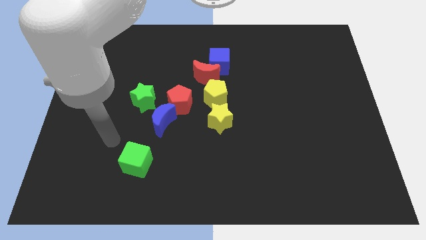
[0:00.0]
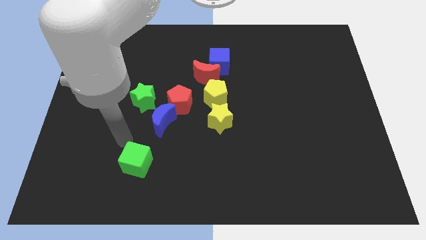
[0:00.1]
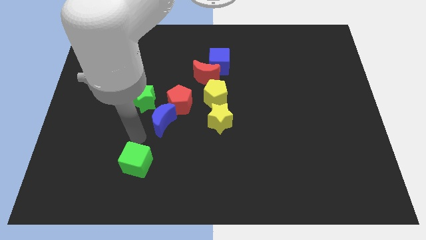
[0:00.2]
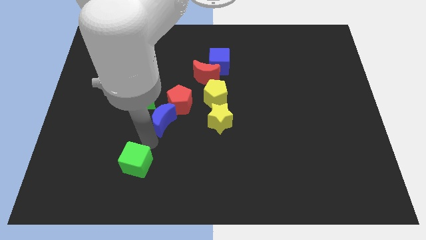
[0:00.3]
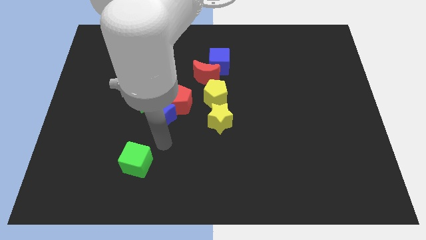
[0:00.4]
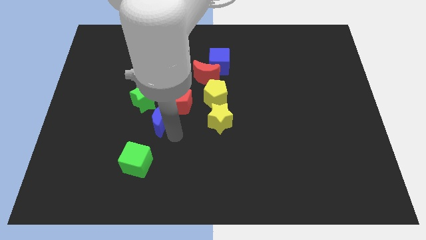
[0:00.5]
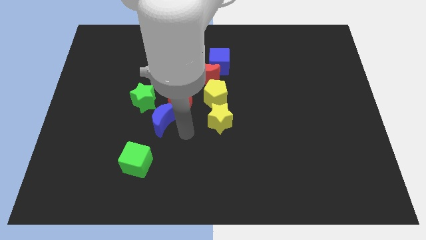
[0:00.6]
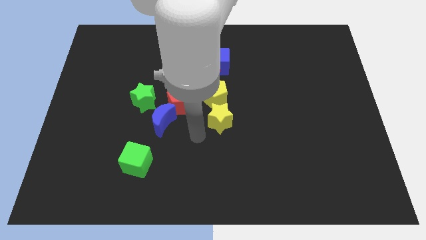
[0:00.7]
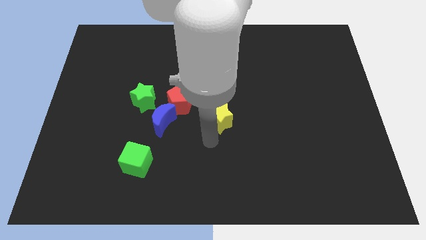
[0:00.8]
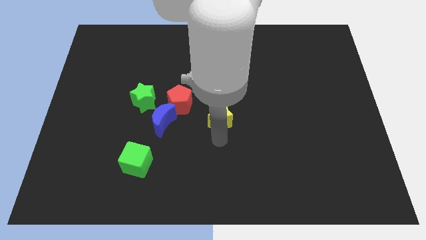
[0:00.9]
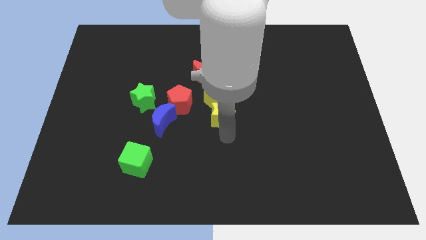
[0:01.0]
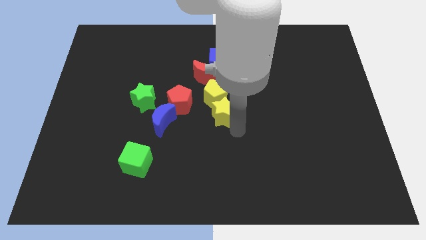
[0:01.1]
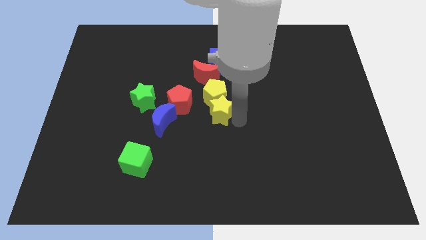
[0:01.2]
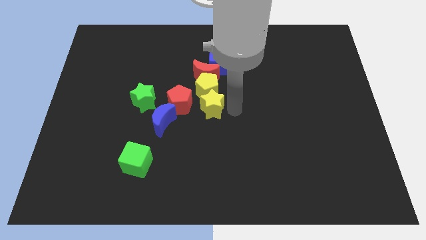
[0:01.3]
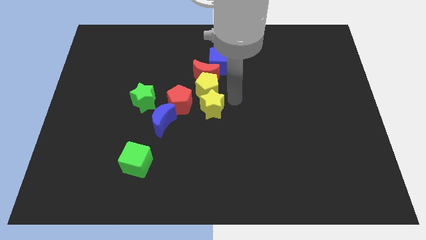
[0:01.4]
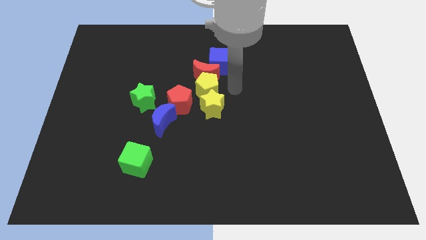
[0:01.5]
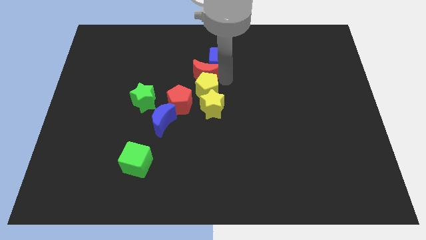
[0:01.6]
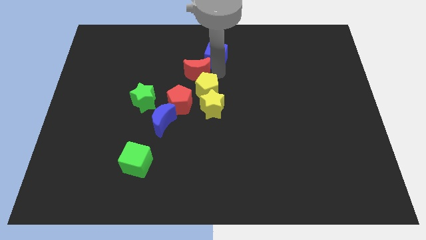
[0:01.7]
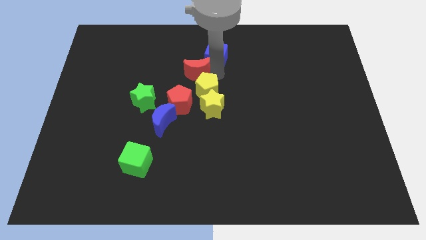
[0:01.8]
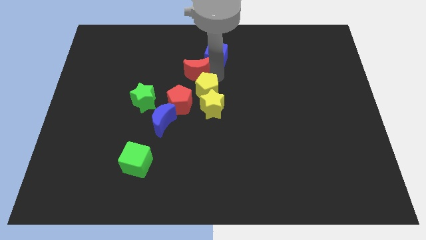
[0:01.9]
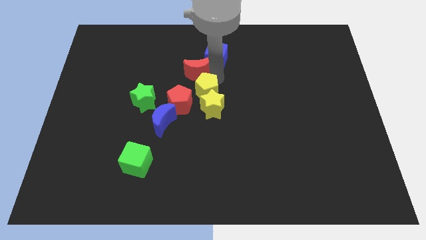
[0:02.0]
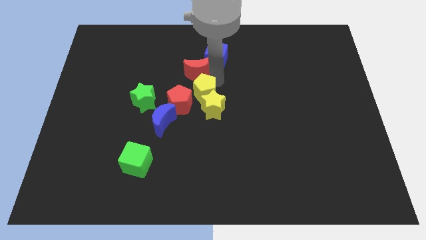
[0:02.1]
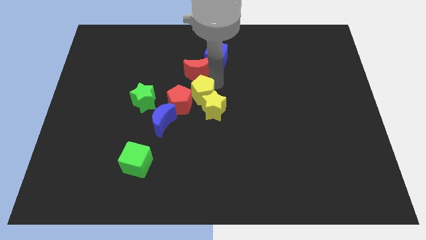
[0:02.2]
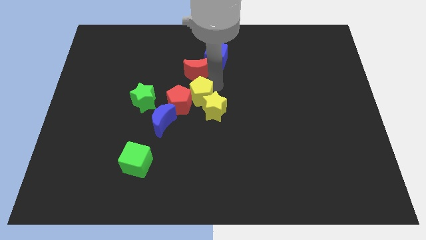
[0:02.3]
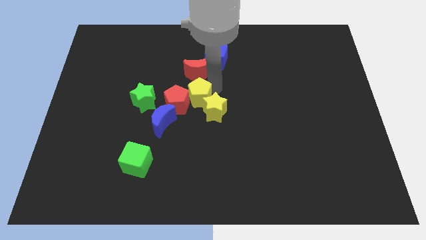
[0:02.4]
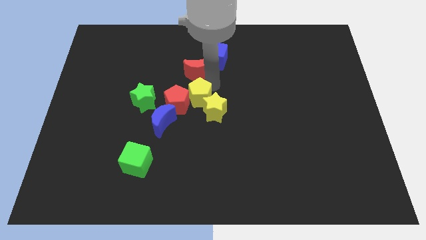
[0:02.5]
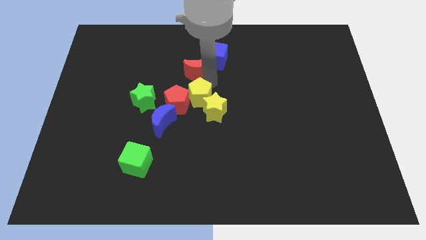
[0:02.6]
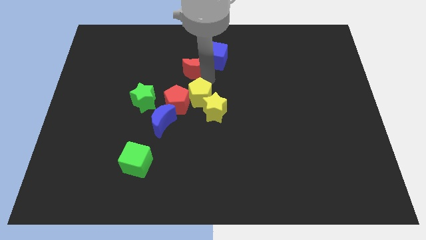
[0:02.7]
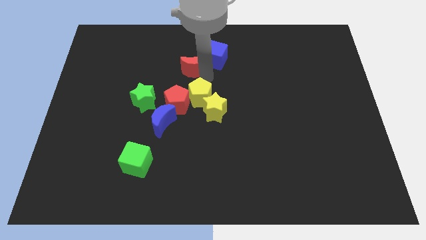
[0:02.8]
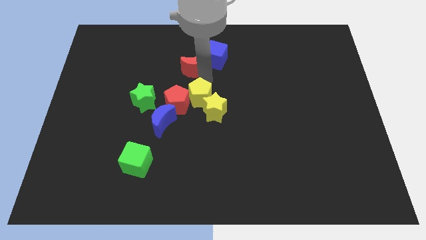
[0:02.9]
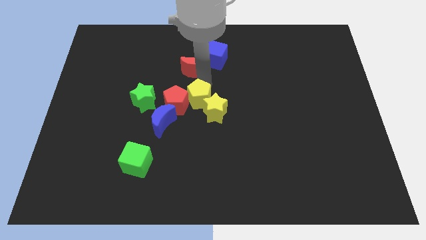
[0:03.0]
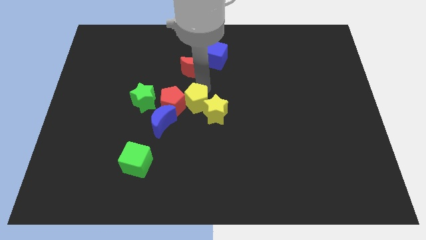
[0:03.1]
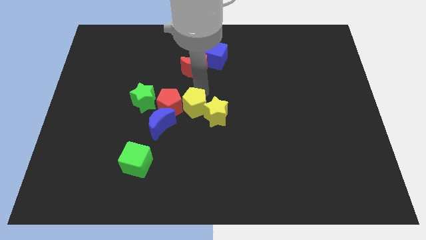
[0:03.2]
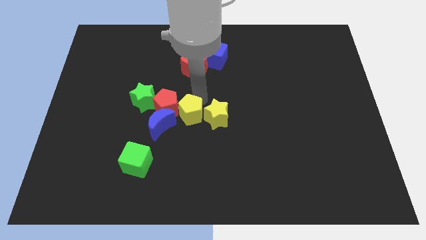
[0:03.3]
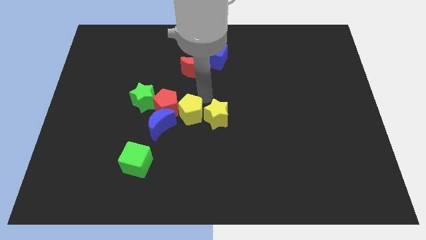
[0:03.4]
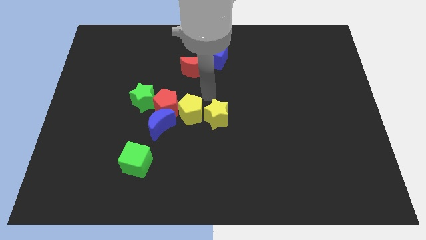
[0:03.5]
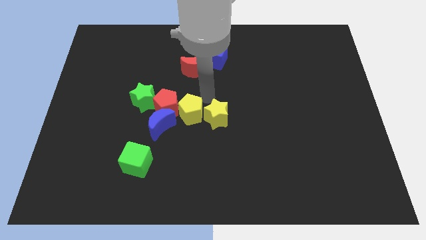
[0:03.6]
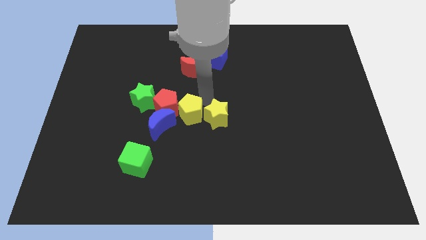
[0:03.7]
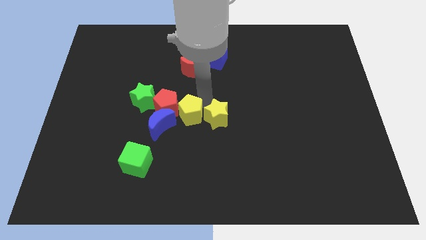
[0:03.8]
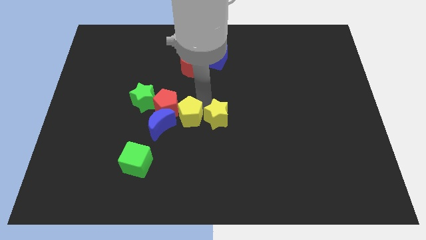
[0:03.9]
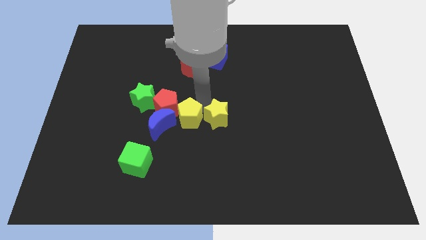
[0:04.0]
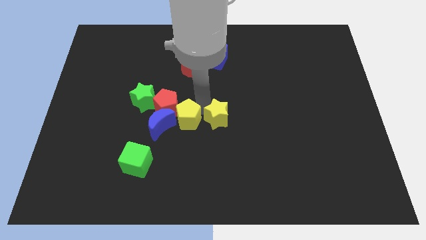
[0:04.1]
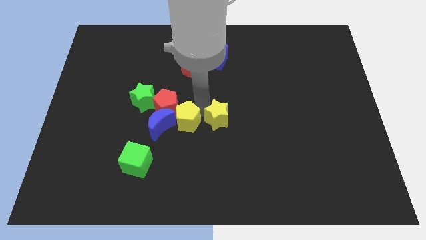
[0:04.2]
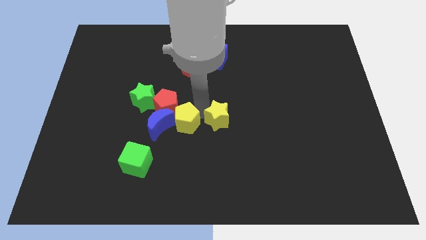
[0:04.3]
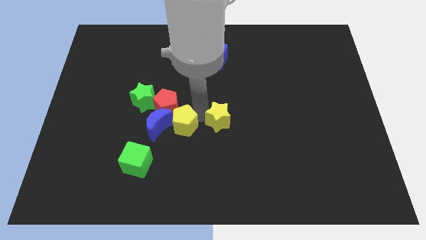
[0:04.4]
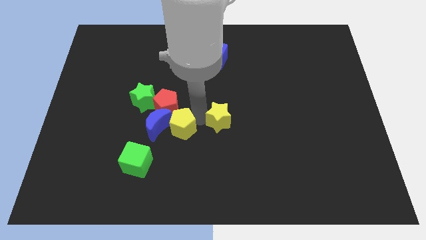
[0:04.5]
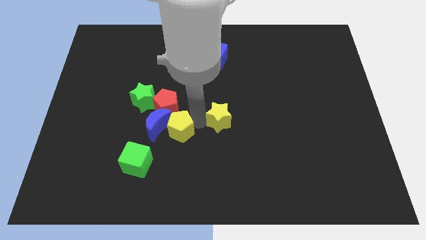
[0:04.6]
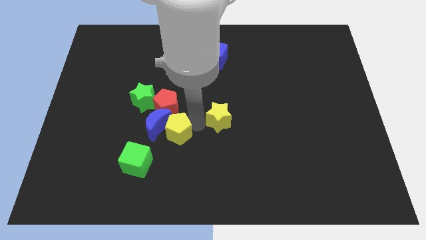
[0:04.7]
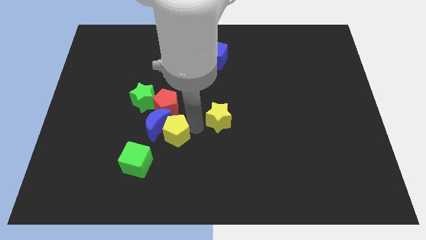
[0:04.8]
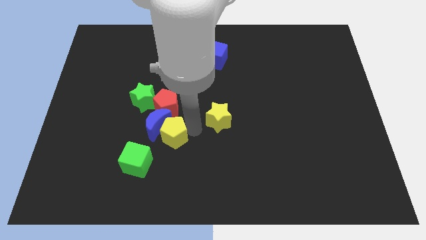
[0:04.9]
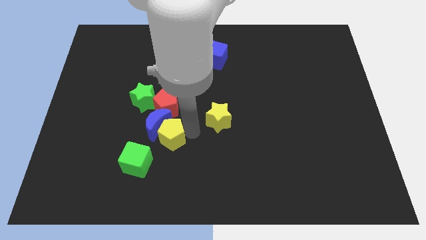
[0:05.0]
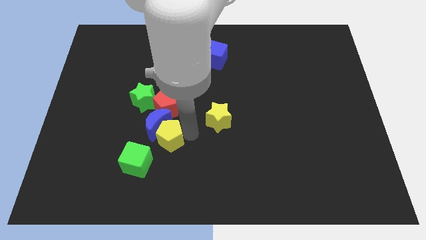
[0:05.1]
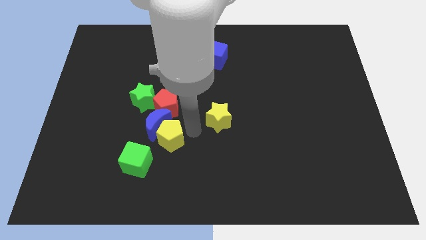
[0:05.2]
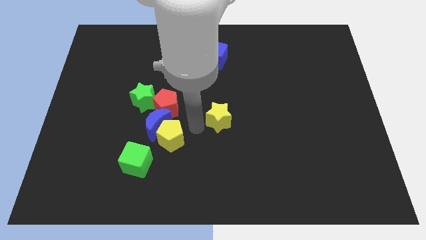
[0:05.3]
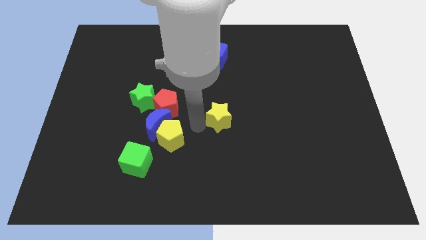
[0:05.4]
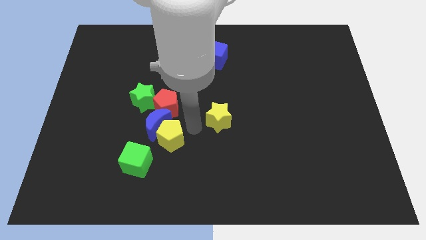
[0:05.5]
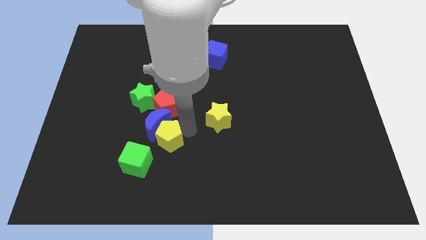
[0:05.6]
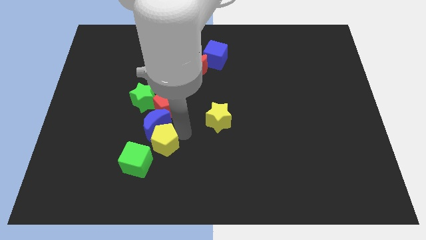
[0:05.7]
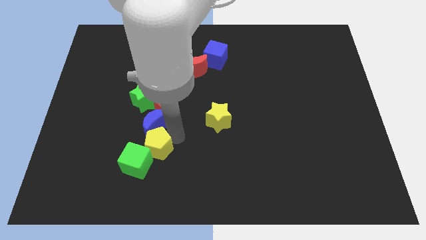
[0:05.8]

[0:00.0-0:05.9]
put the yellow pentagon towards the green cube

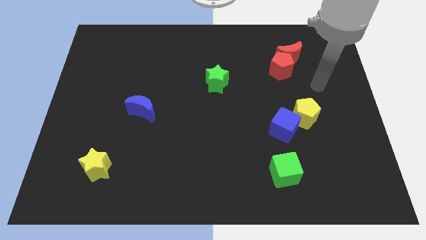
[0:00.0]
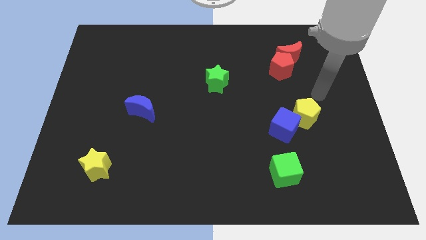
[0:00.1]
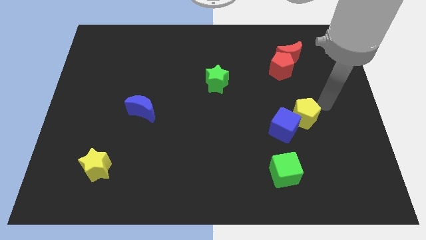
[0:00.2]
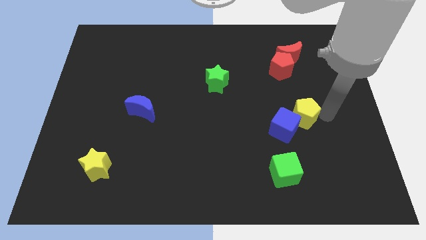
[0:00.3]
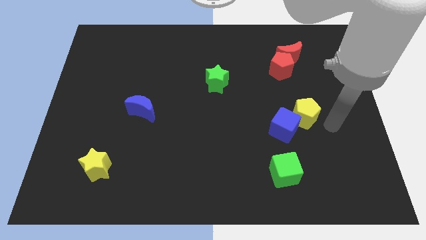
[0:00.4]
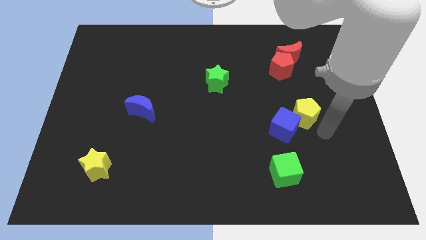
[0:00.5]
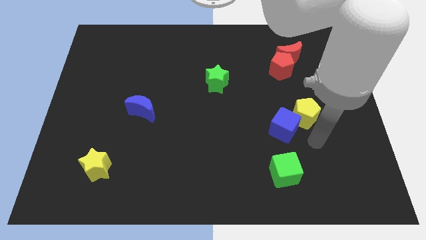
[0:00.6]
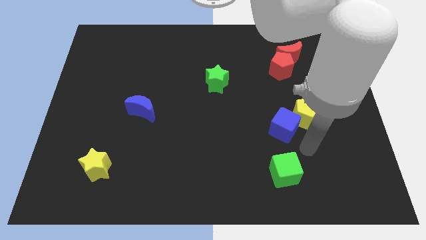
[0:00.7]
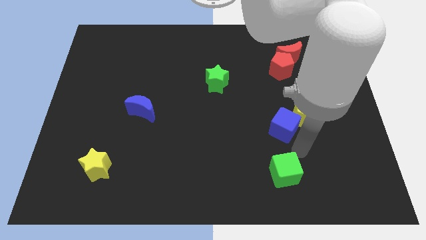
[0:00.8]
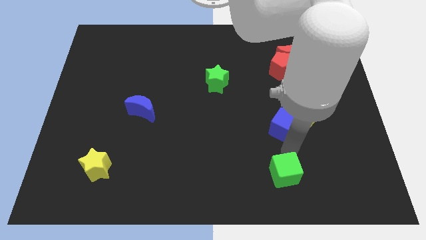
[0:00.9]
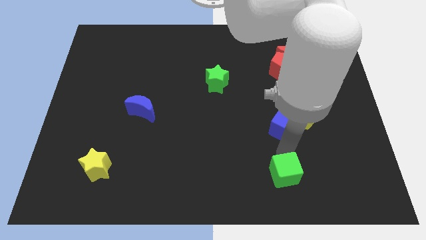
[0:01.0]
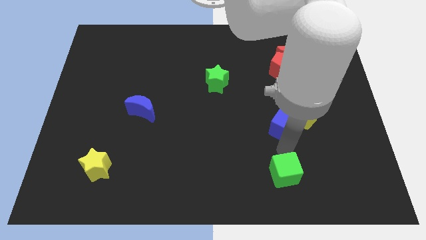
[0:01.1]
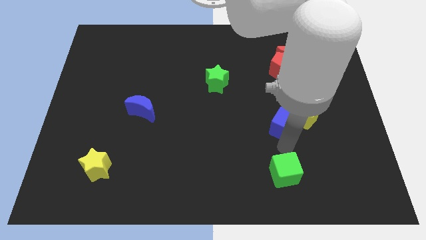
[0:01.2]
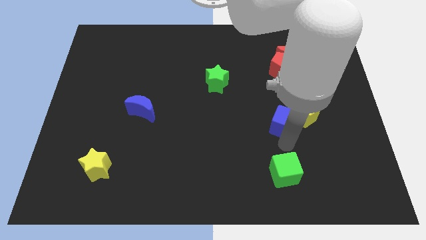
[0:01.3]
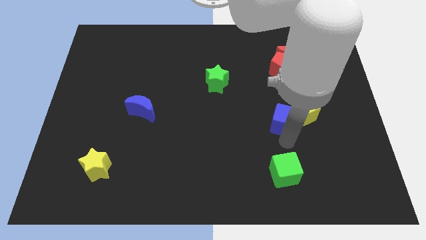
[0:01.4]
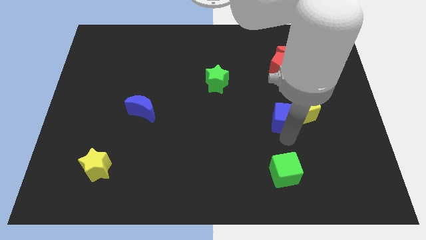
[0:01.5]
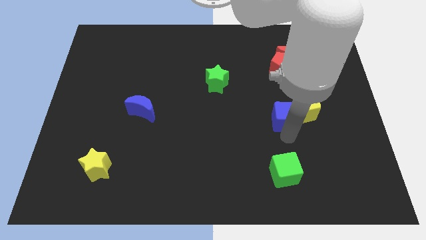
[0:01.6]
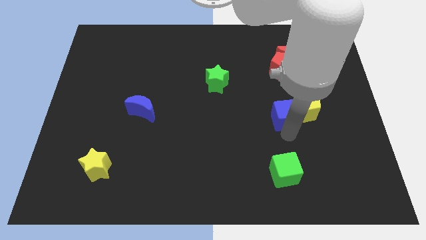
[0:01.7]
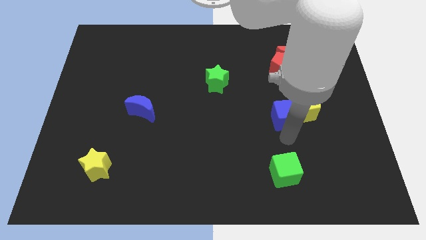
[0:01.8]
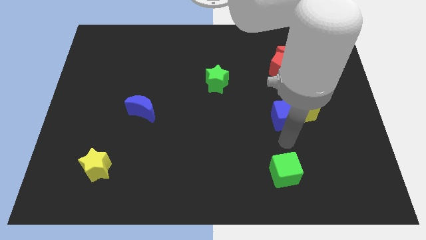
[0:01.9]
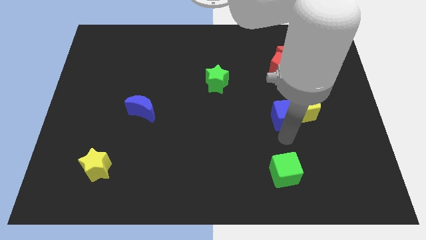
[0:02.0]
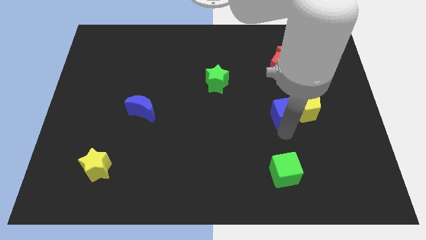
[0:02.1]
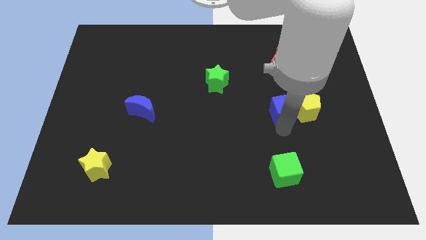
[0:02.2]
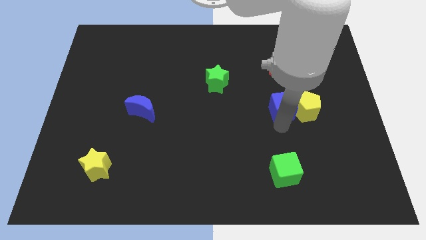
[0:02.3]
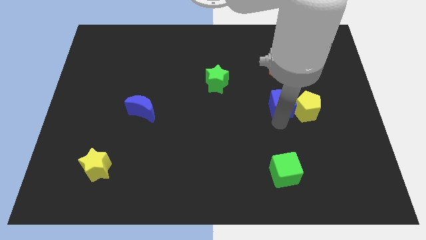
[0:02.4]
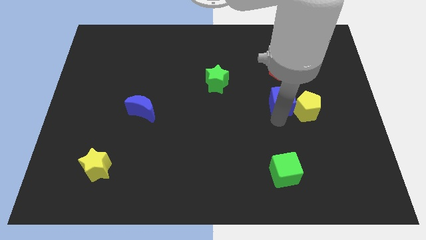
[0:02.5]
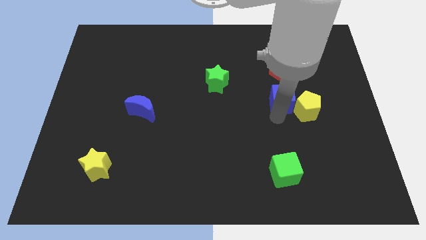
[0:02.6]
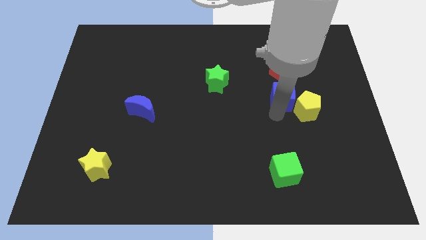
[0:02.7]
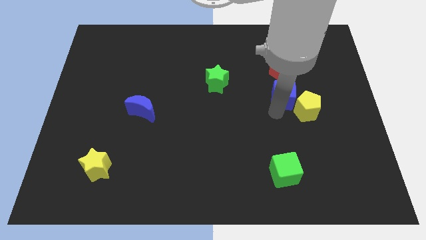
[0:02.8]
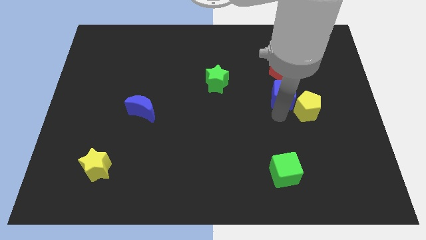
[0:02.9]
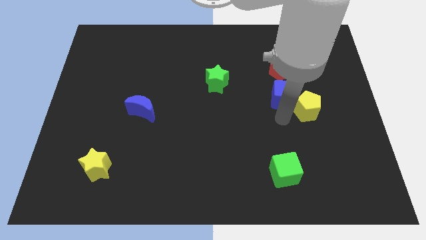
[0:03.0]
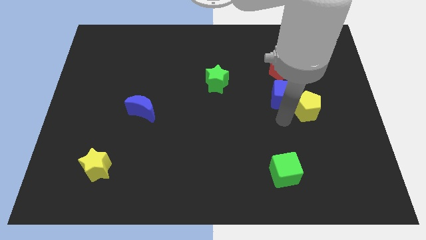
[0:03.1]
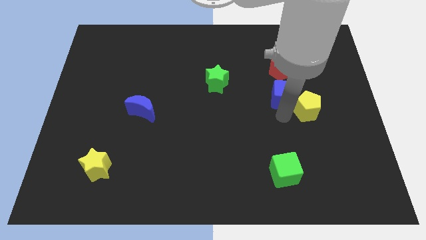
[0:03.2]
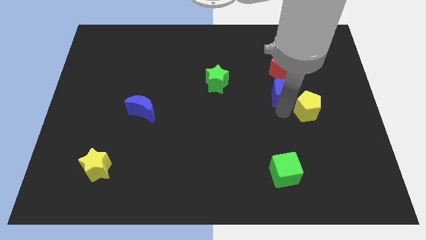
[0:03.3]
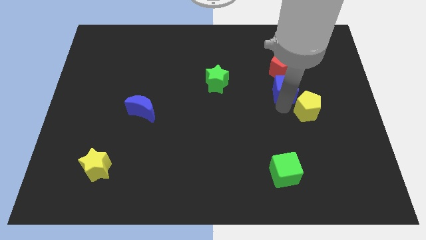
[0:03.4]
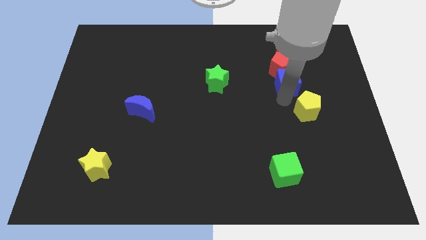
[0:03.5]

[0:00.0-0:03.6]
put the blue cube to the red pentagon
